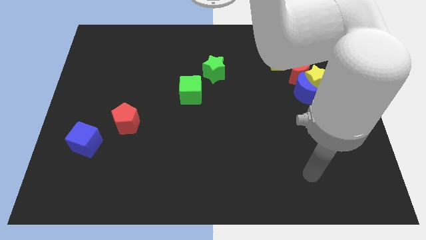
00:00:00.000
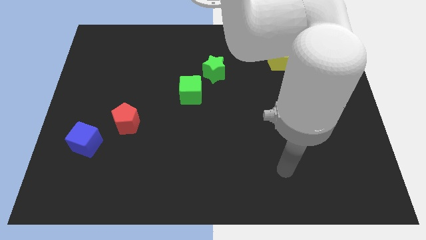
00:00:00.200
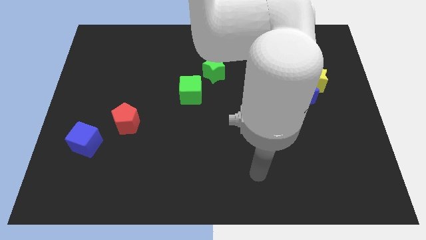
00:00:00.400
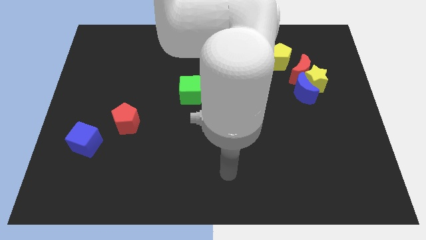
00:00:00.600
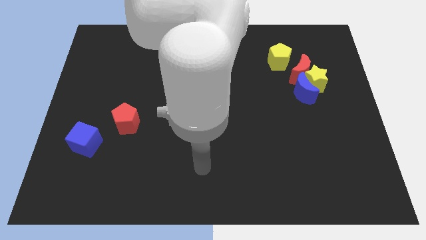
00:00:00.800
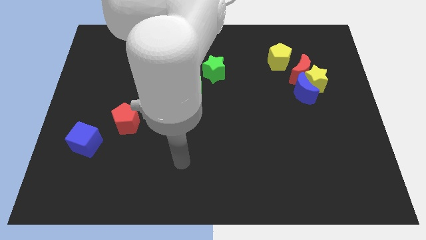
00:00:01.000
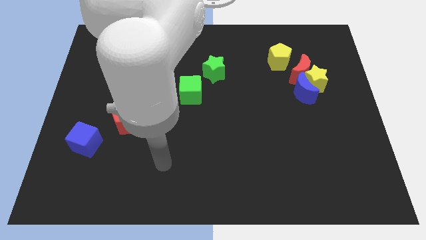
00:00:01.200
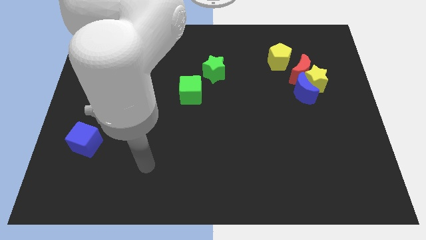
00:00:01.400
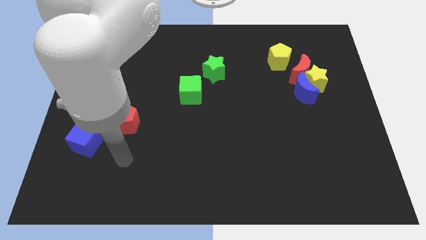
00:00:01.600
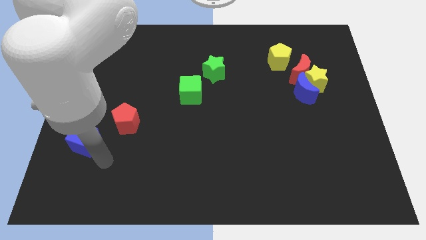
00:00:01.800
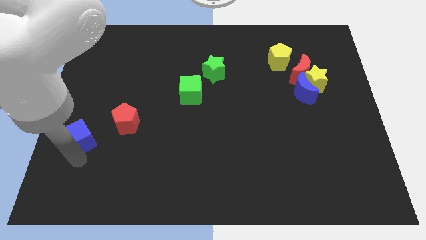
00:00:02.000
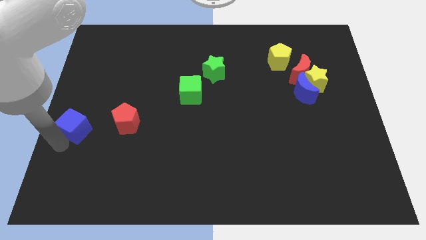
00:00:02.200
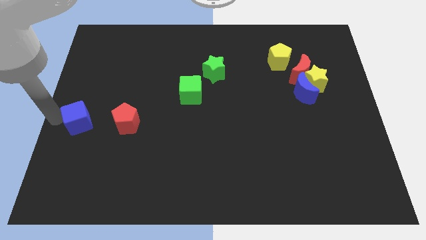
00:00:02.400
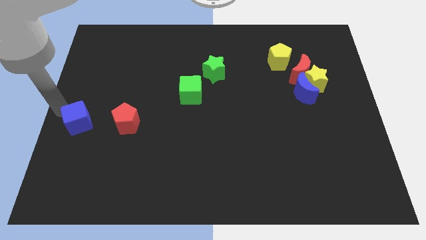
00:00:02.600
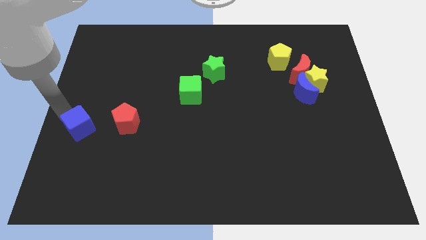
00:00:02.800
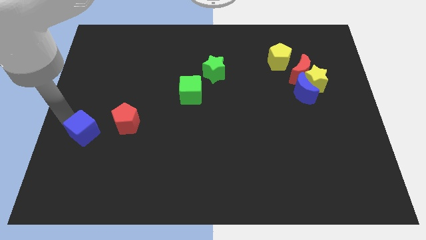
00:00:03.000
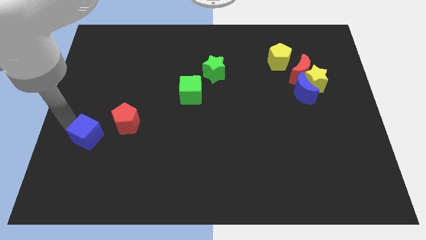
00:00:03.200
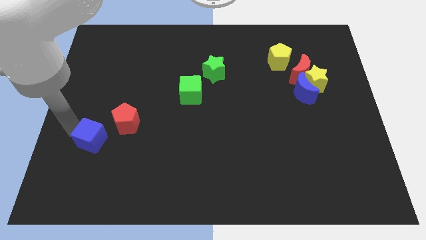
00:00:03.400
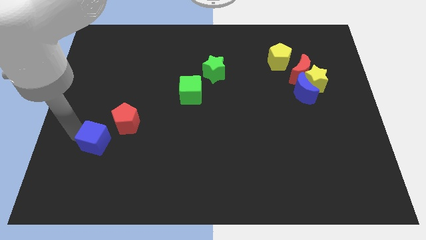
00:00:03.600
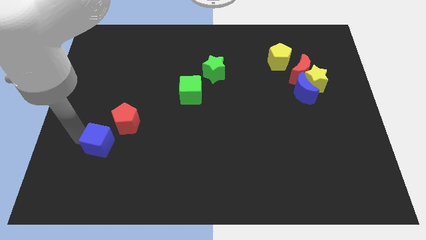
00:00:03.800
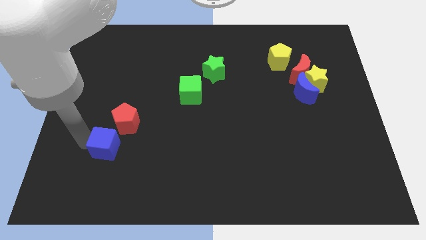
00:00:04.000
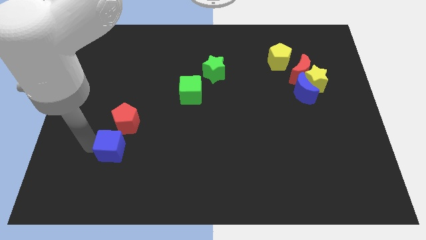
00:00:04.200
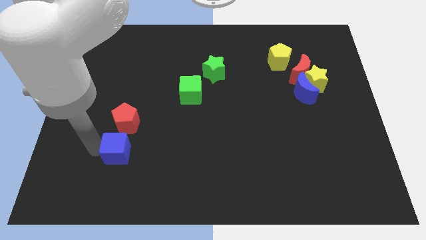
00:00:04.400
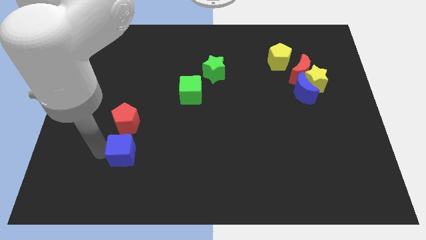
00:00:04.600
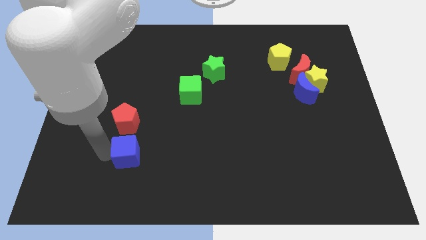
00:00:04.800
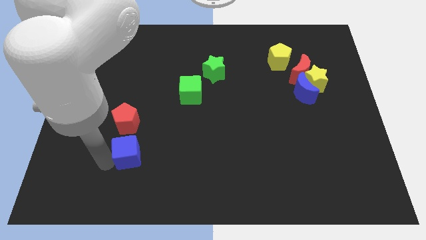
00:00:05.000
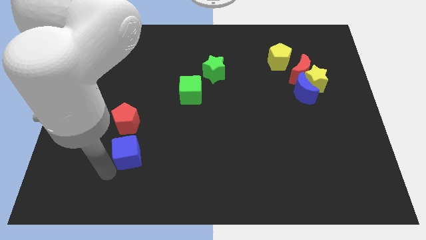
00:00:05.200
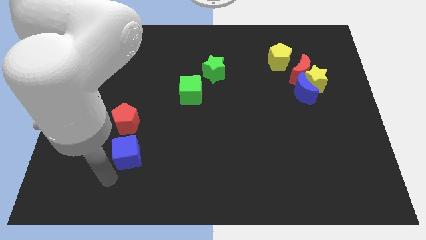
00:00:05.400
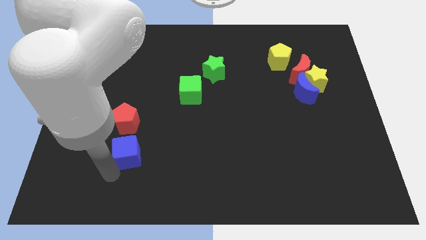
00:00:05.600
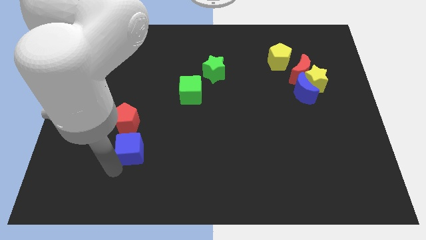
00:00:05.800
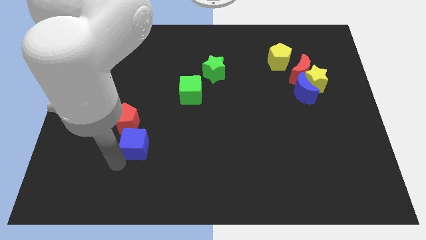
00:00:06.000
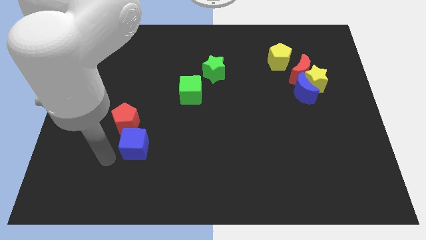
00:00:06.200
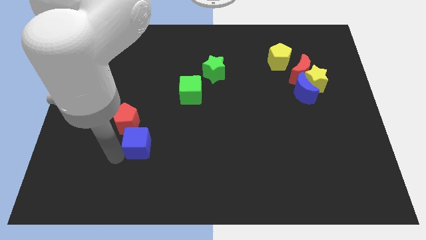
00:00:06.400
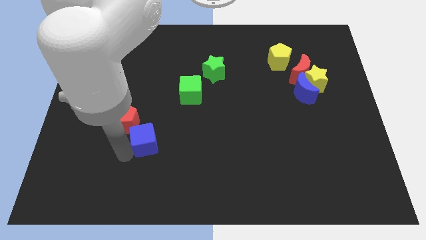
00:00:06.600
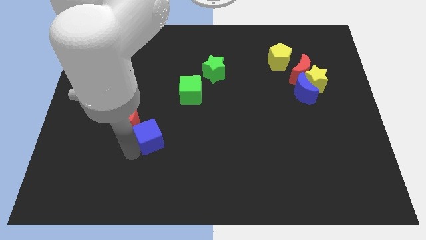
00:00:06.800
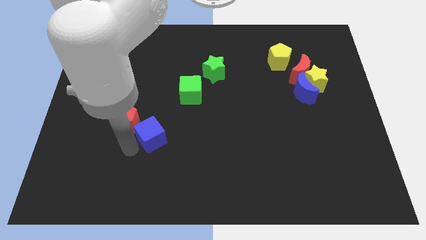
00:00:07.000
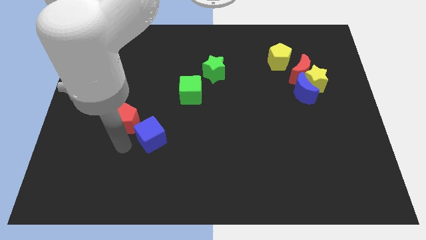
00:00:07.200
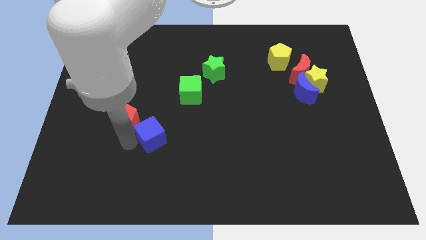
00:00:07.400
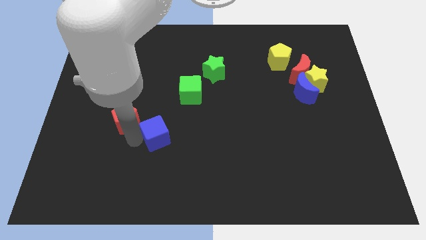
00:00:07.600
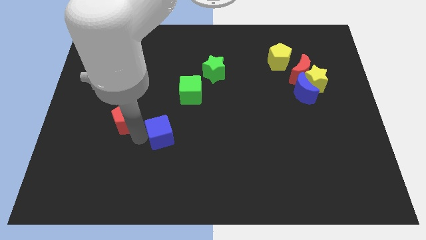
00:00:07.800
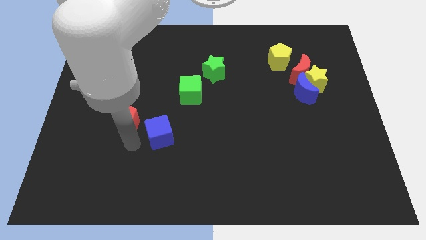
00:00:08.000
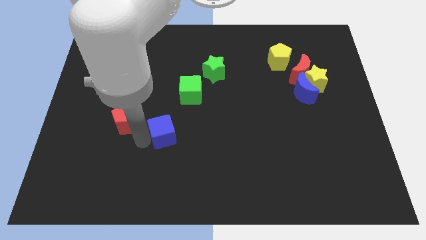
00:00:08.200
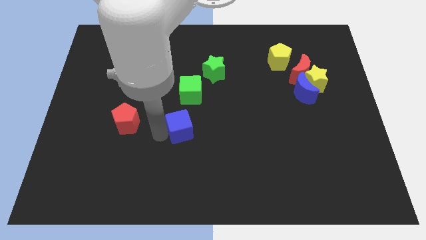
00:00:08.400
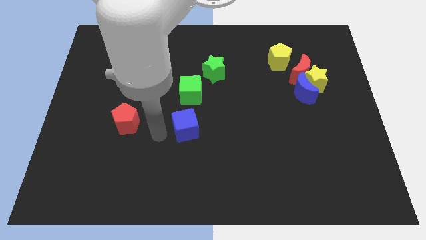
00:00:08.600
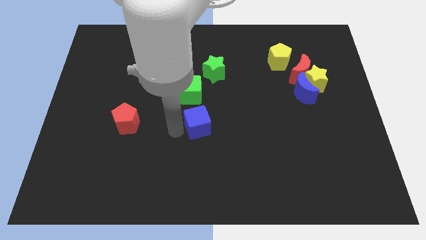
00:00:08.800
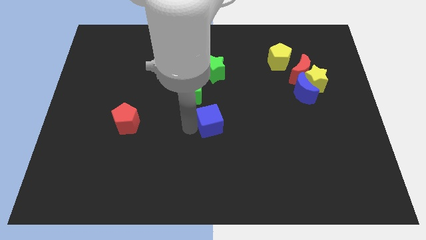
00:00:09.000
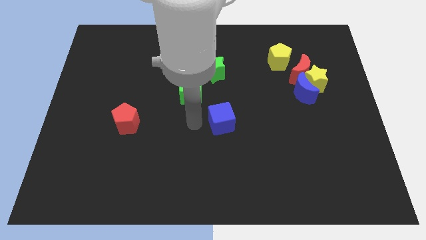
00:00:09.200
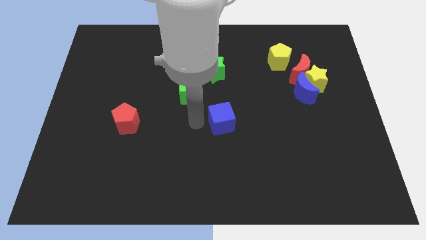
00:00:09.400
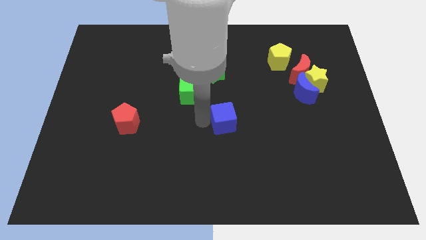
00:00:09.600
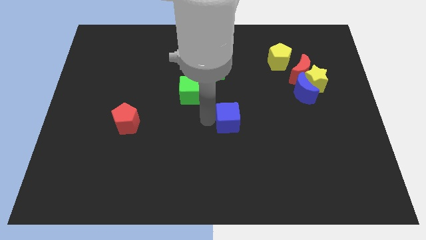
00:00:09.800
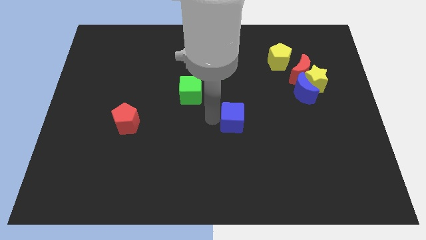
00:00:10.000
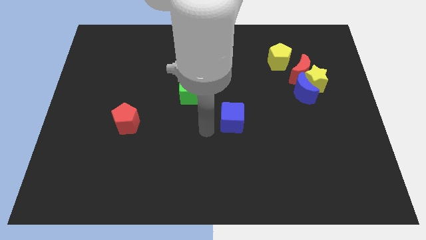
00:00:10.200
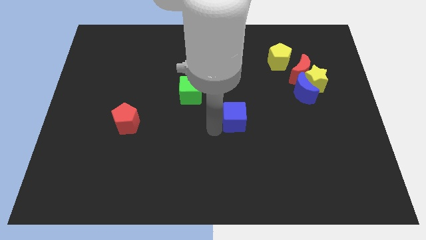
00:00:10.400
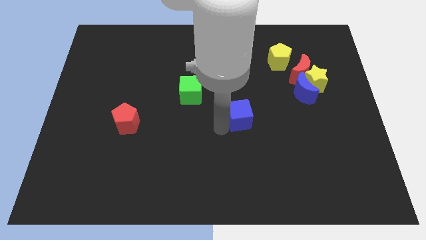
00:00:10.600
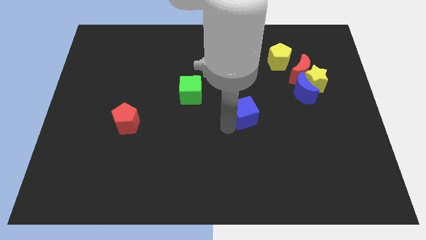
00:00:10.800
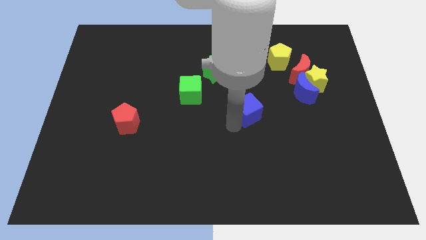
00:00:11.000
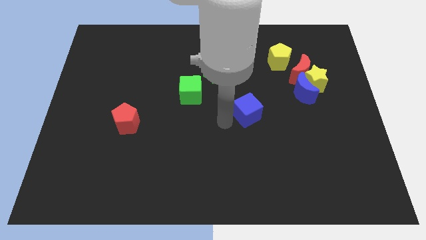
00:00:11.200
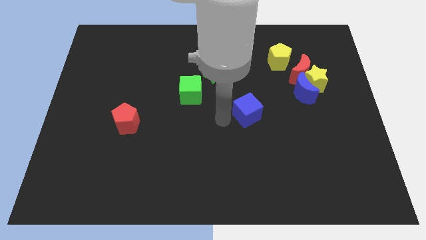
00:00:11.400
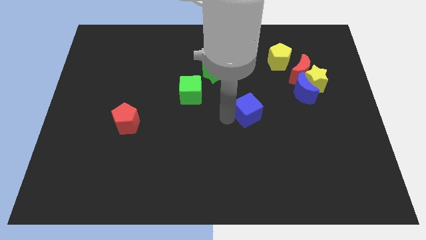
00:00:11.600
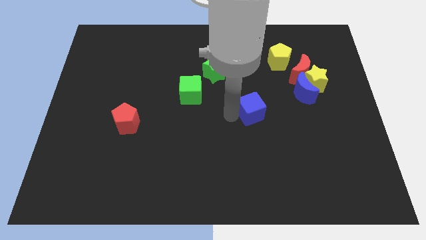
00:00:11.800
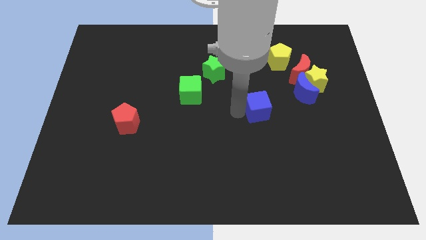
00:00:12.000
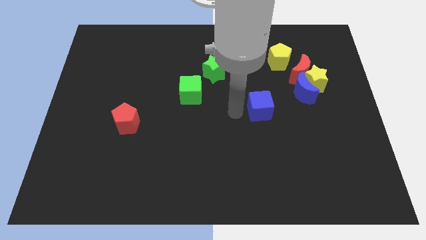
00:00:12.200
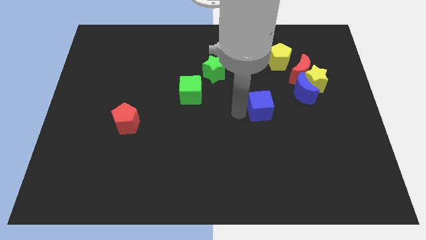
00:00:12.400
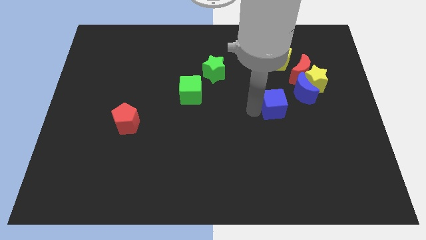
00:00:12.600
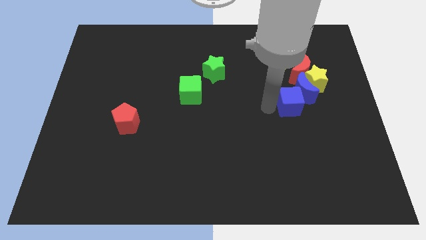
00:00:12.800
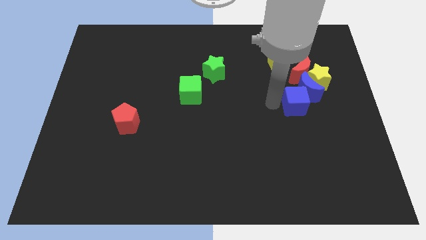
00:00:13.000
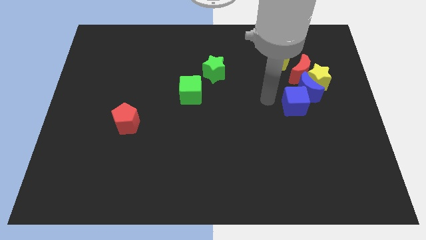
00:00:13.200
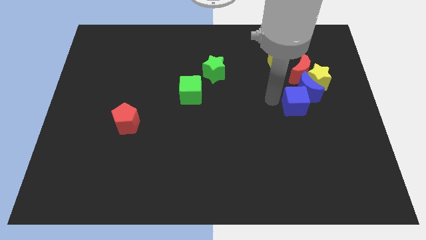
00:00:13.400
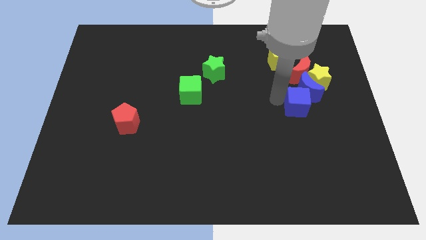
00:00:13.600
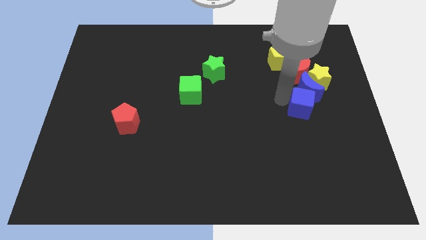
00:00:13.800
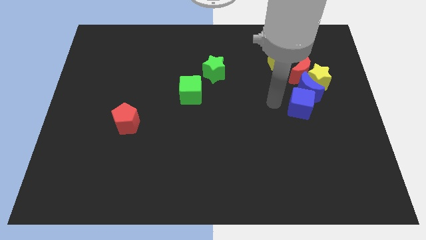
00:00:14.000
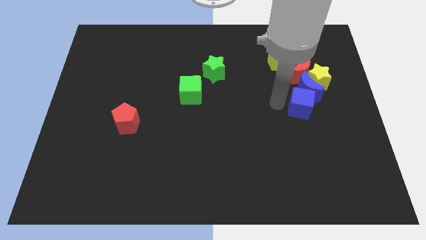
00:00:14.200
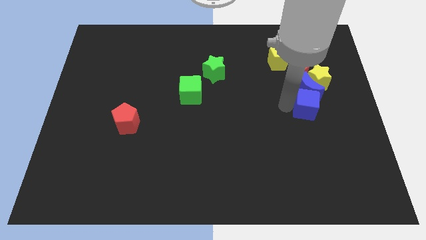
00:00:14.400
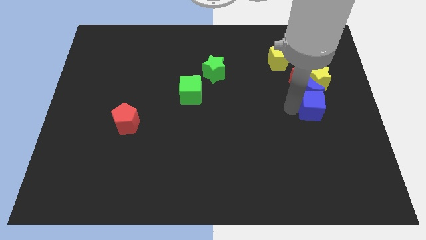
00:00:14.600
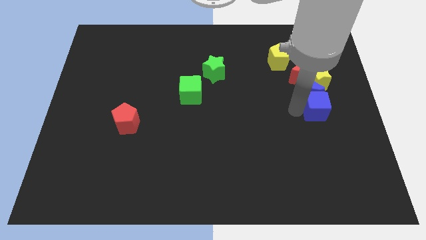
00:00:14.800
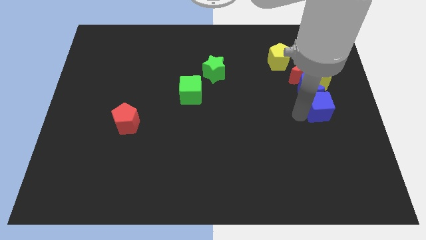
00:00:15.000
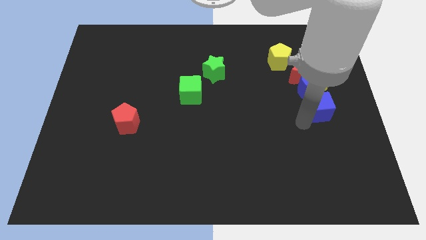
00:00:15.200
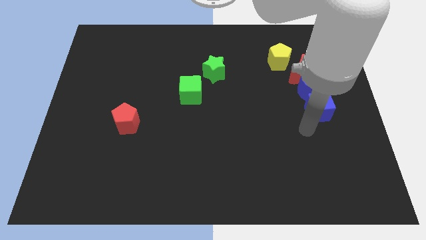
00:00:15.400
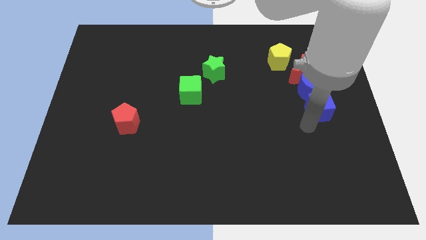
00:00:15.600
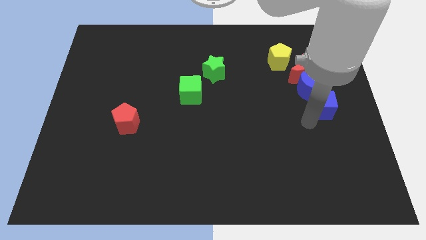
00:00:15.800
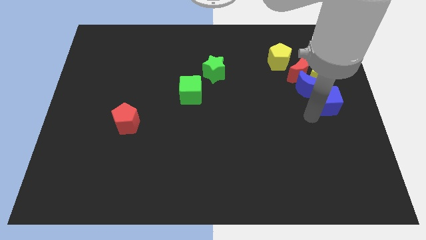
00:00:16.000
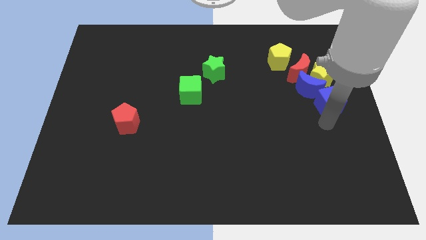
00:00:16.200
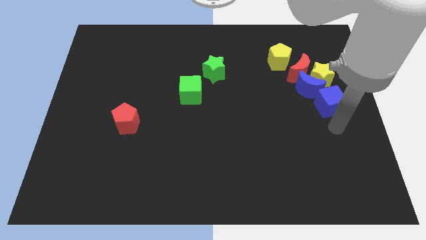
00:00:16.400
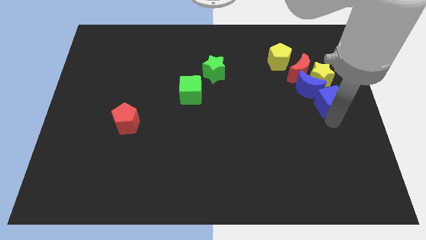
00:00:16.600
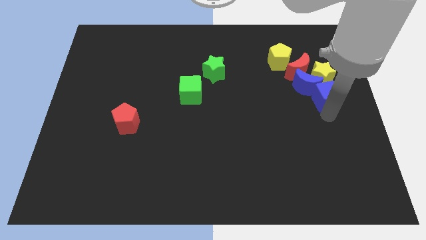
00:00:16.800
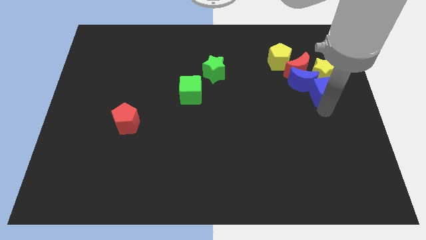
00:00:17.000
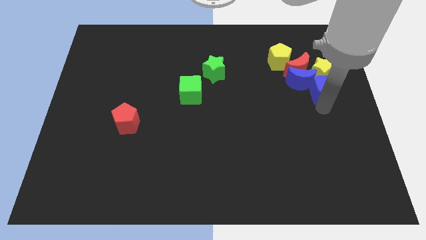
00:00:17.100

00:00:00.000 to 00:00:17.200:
push the blue cube close to the yellow star
